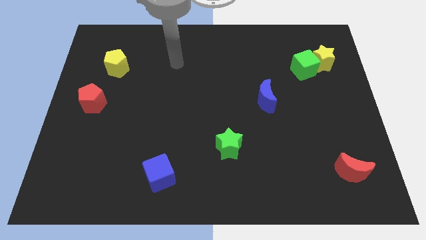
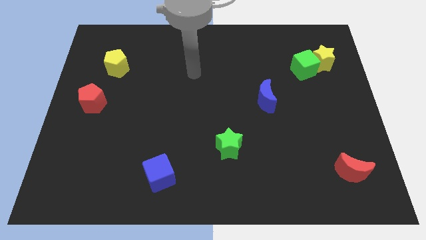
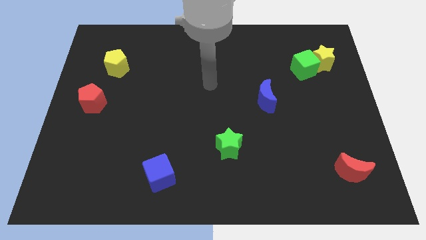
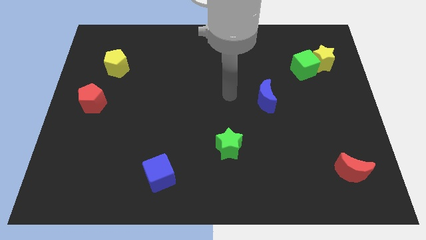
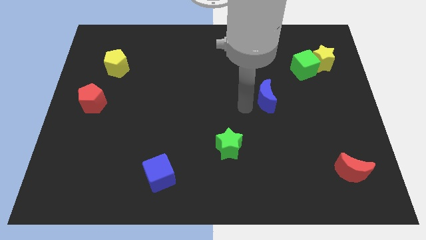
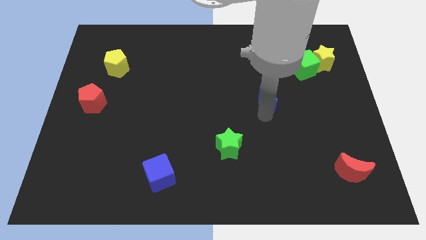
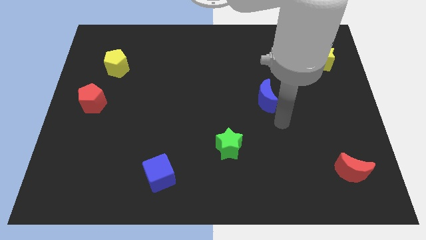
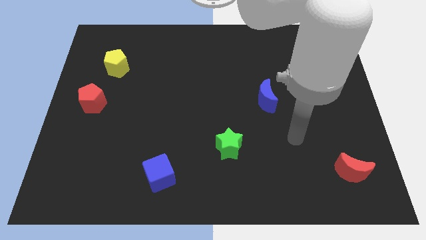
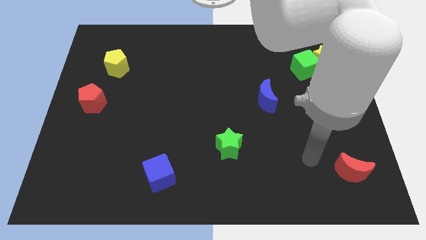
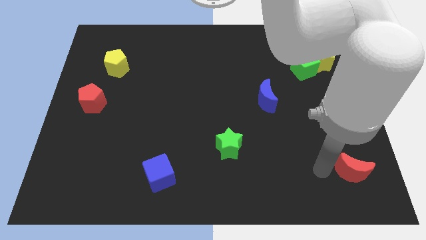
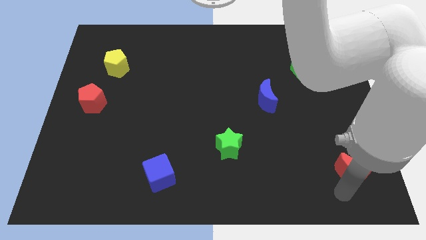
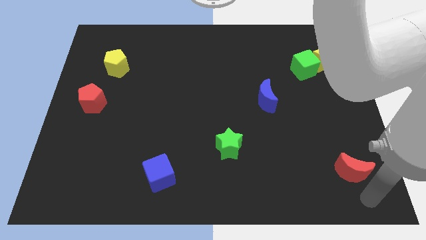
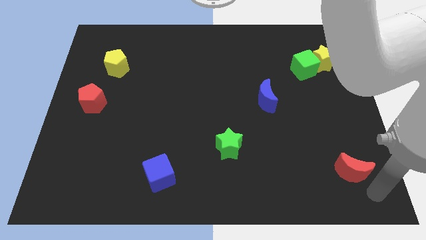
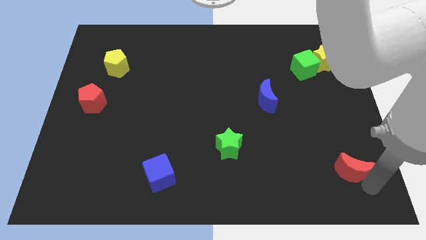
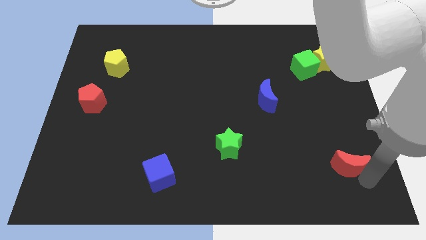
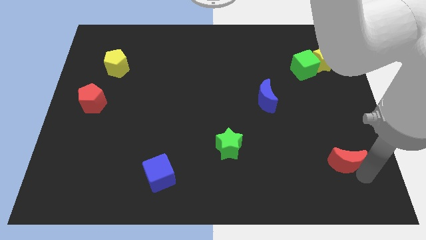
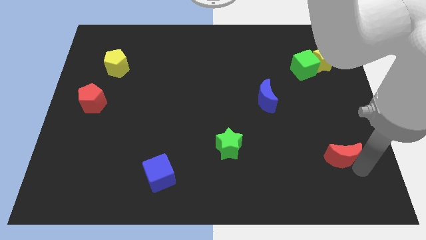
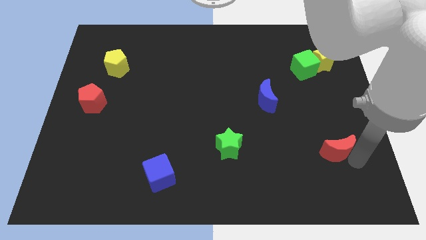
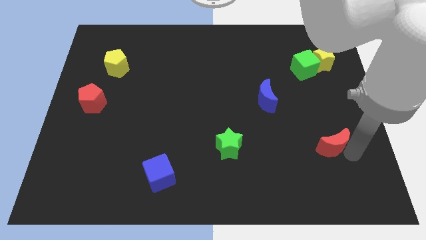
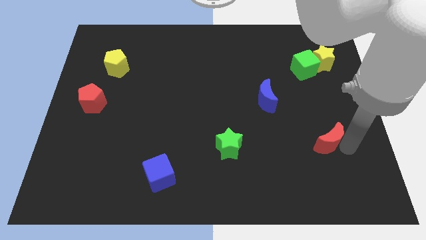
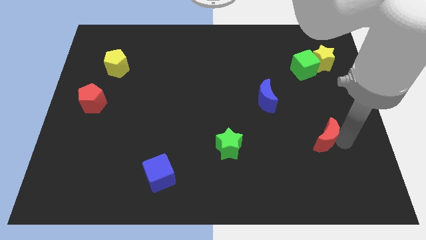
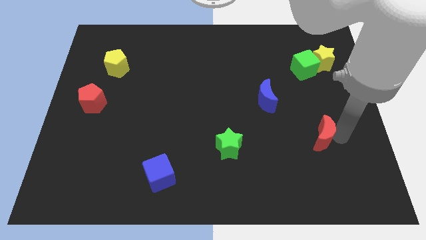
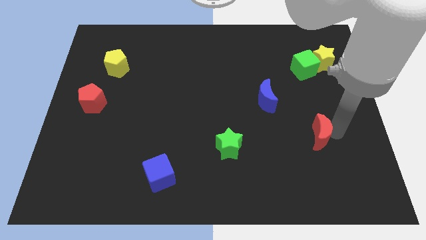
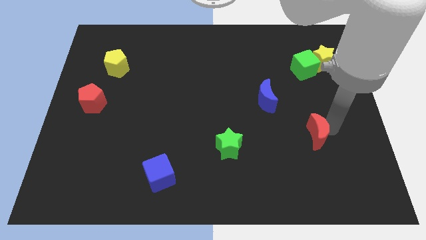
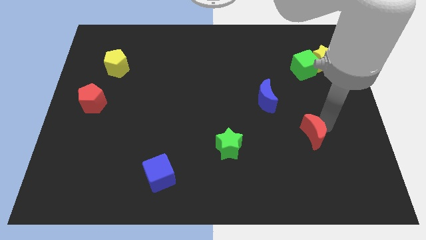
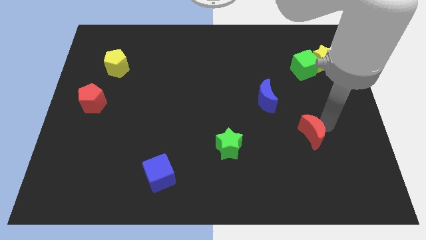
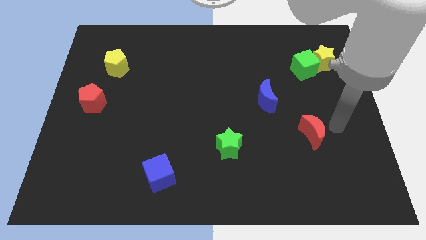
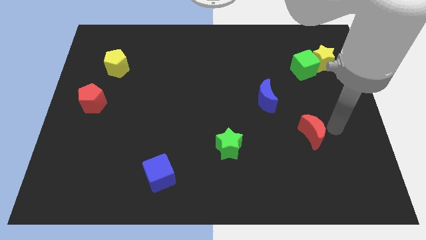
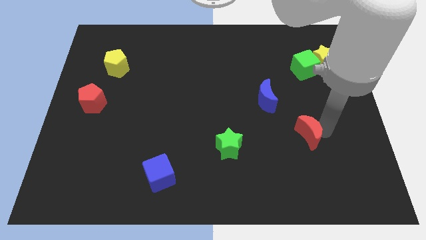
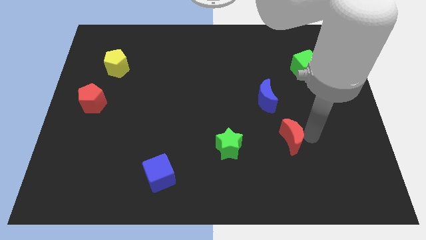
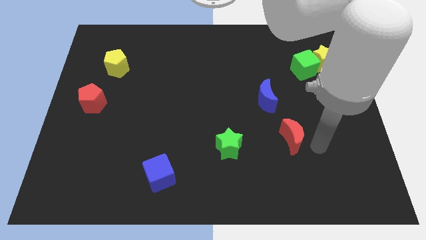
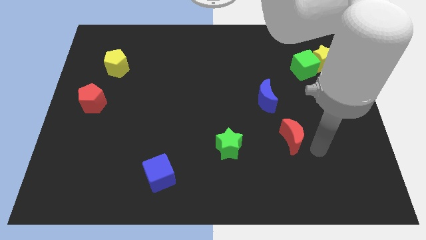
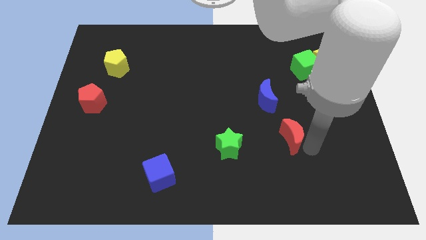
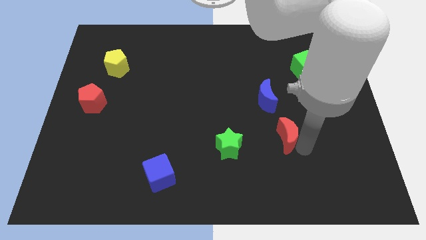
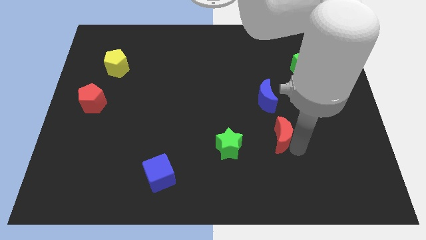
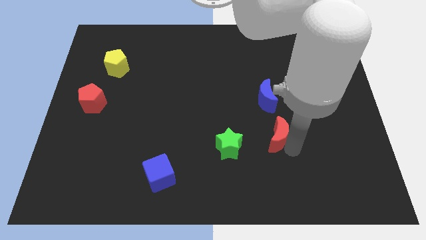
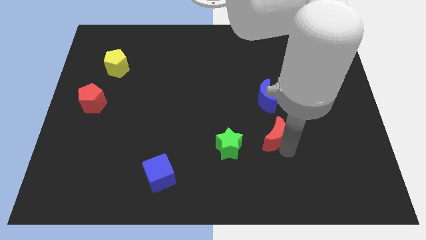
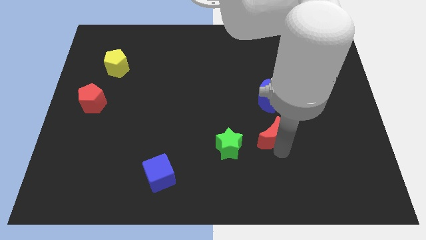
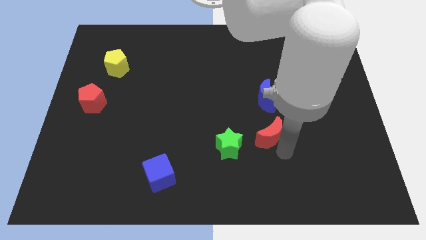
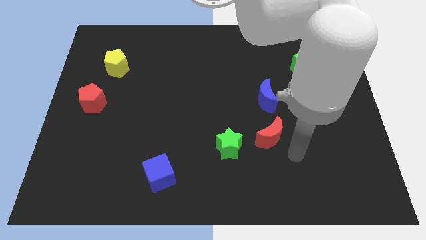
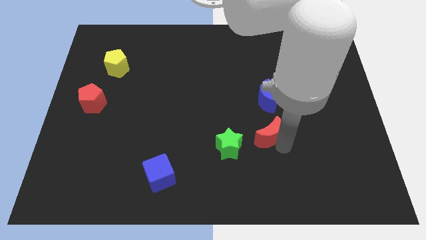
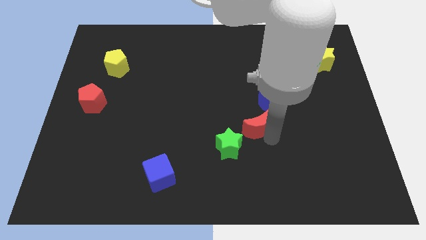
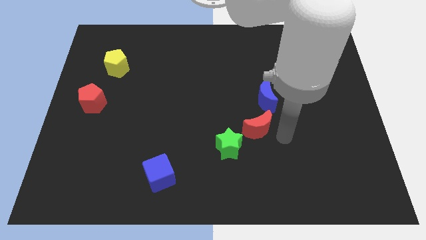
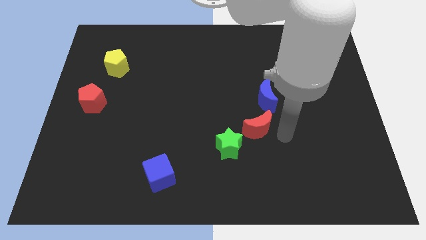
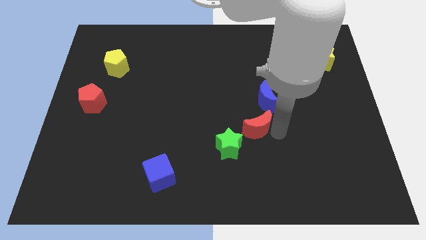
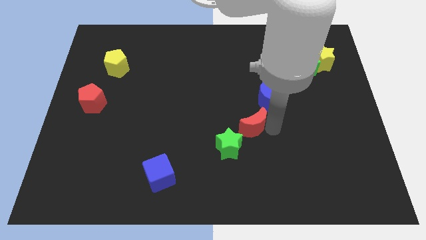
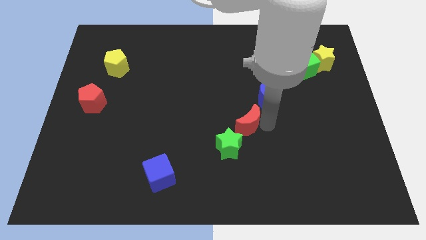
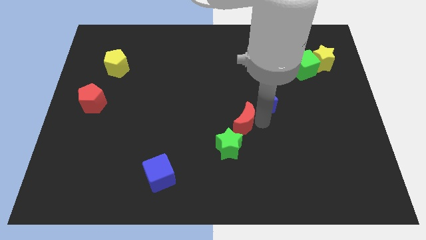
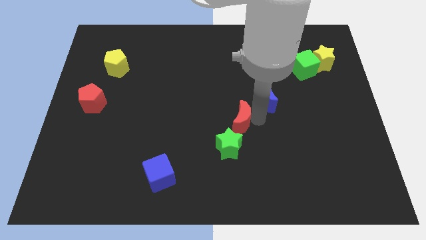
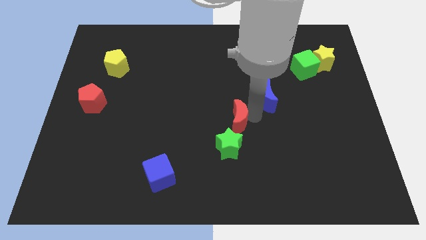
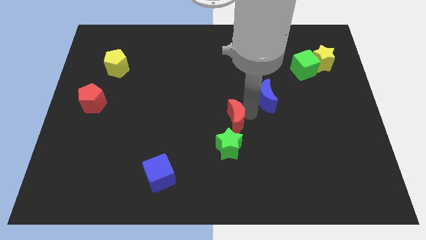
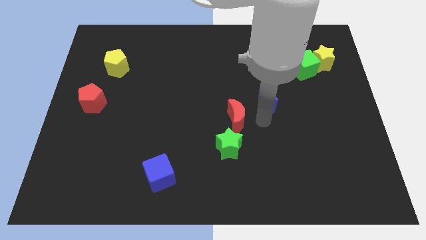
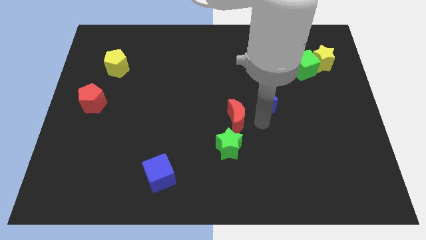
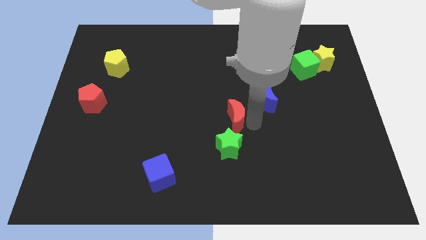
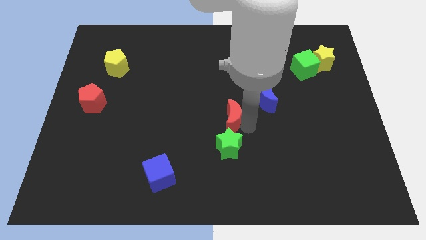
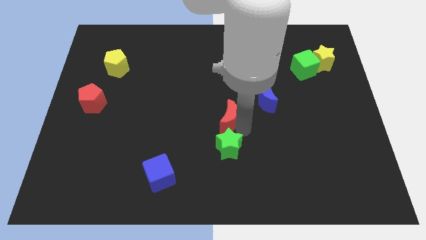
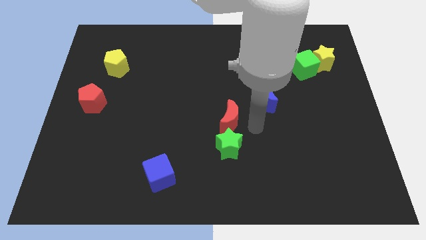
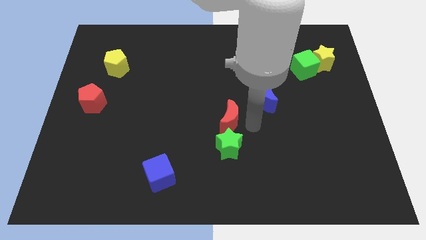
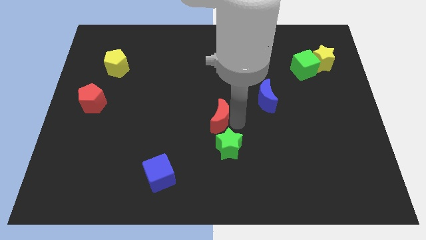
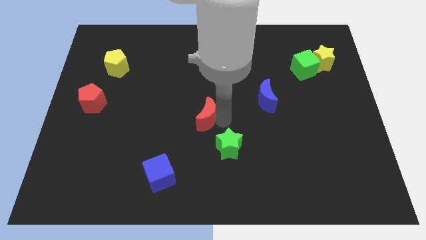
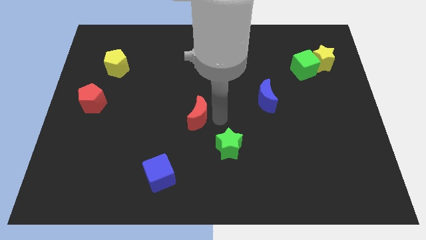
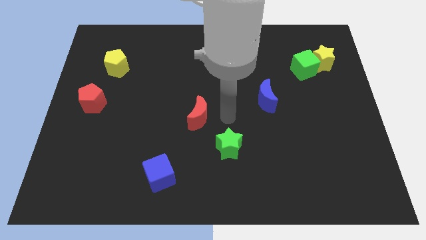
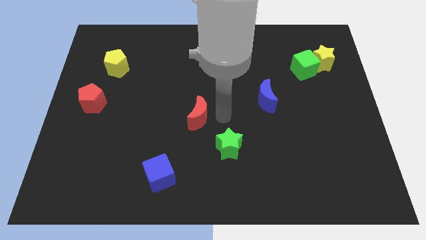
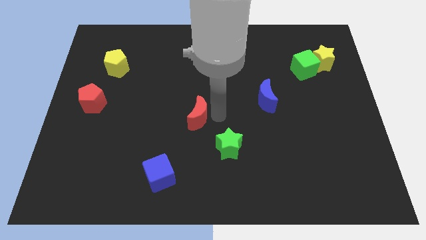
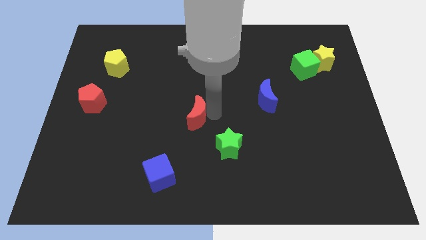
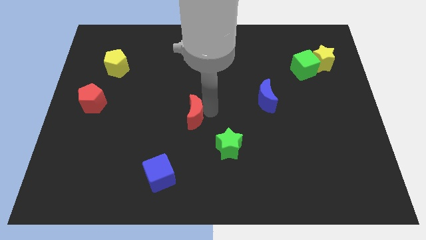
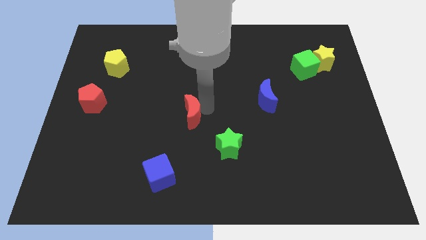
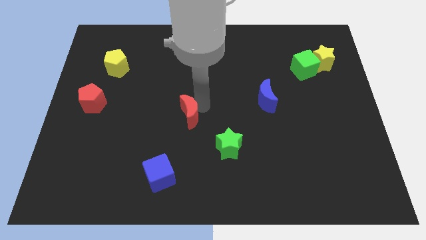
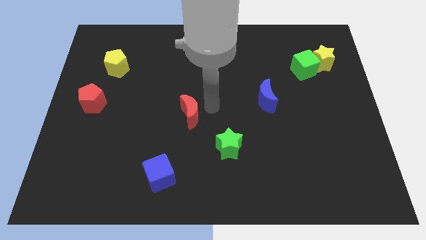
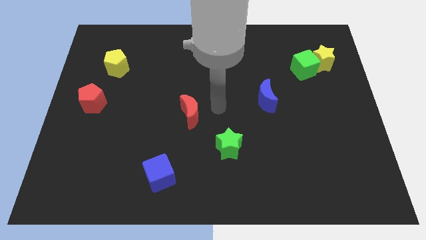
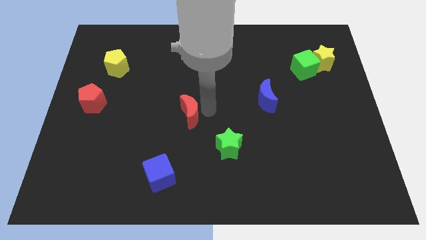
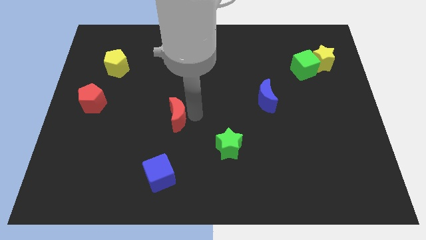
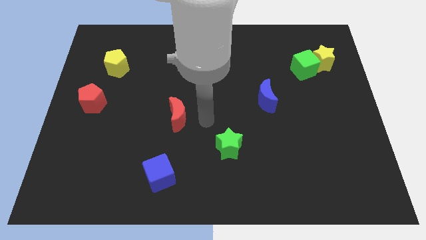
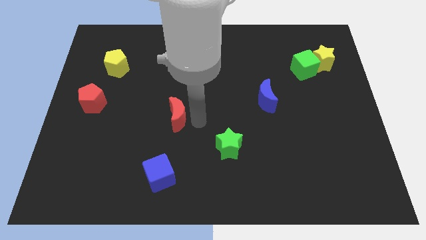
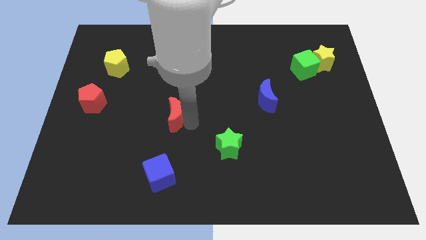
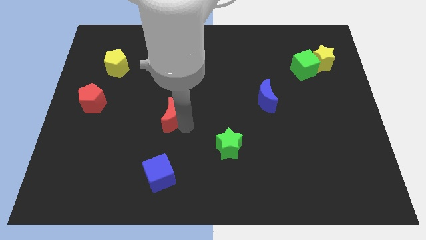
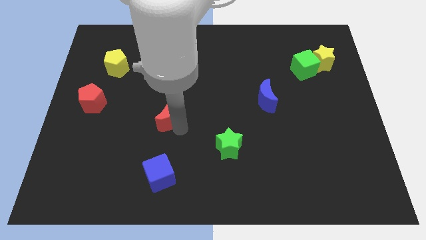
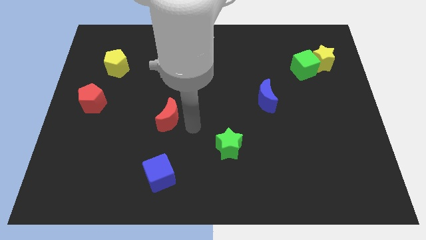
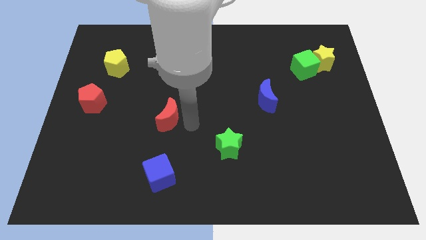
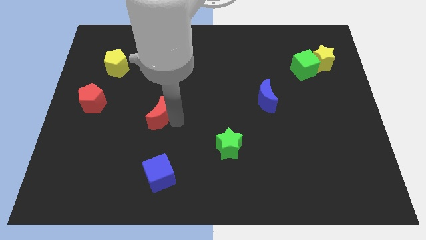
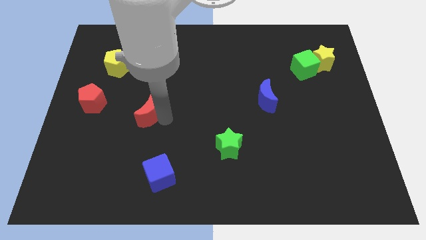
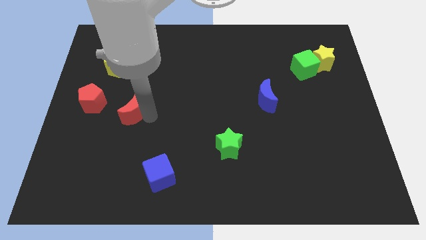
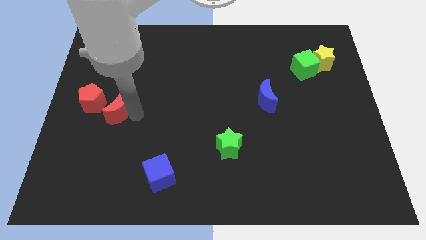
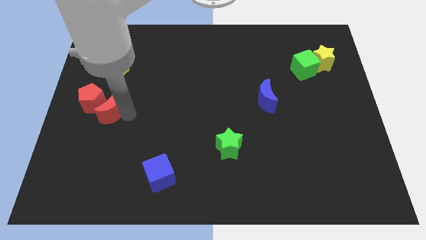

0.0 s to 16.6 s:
move the red moon to the red pentagon
